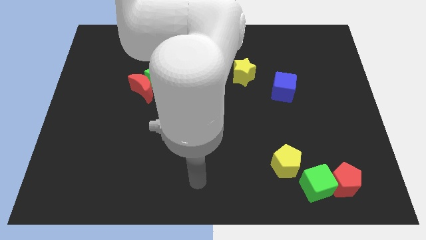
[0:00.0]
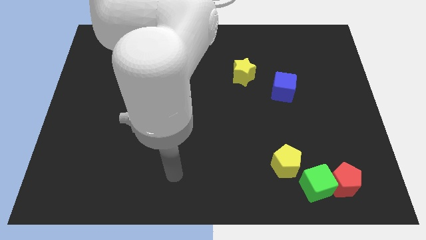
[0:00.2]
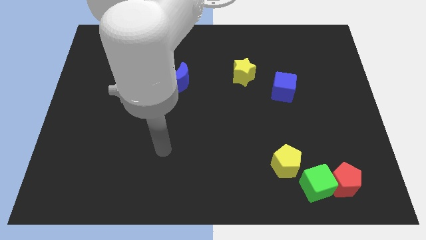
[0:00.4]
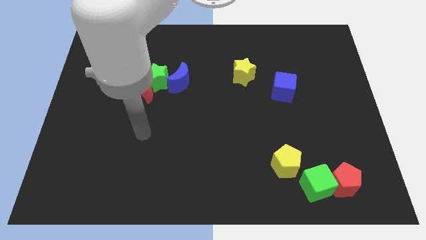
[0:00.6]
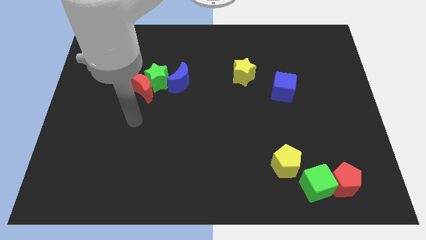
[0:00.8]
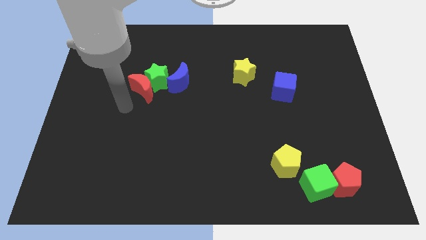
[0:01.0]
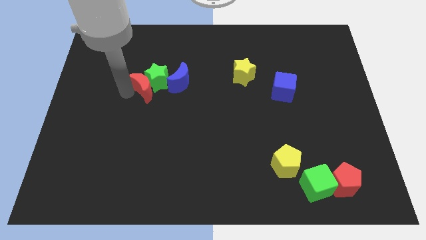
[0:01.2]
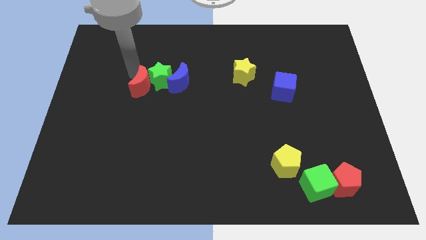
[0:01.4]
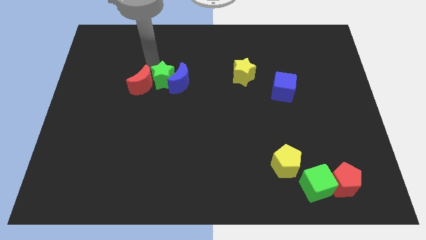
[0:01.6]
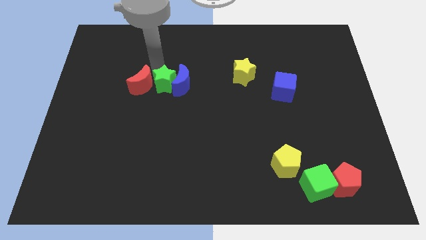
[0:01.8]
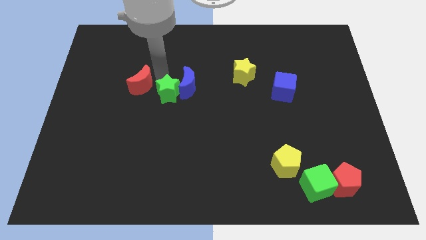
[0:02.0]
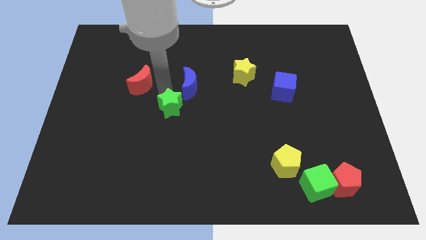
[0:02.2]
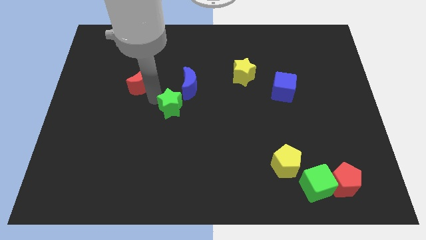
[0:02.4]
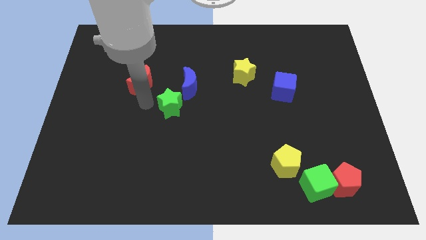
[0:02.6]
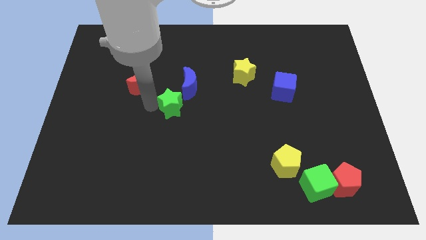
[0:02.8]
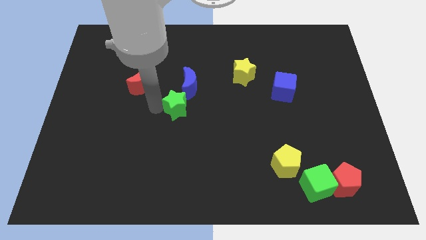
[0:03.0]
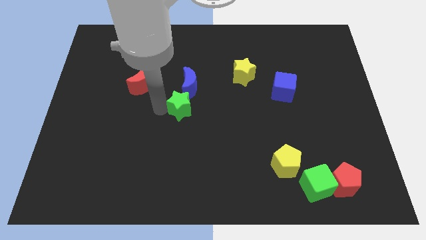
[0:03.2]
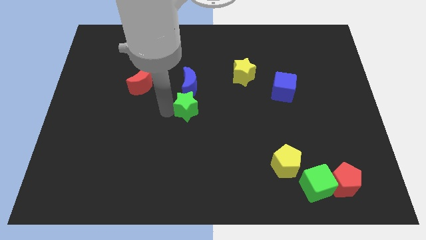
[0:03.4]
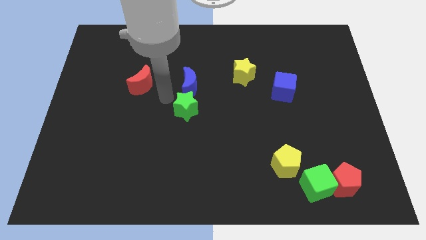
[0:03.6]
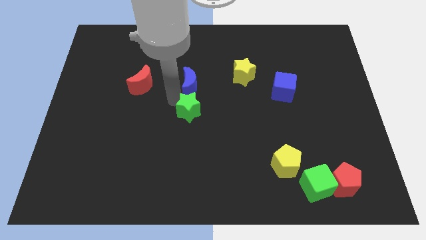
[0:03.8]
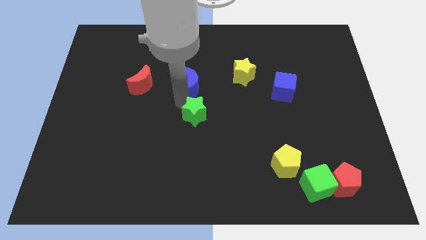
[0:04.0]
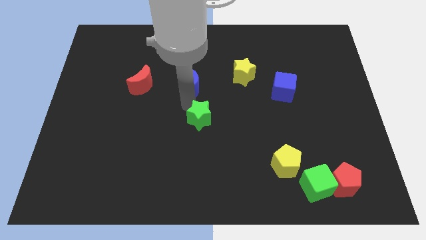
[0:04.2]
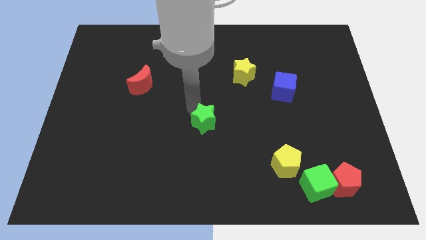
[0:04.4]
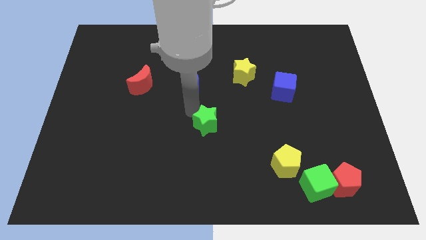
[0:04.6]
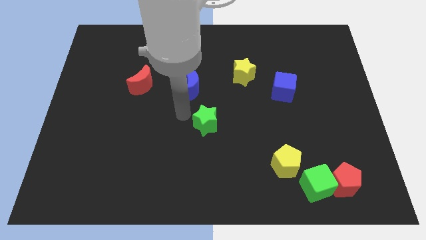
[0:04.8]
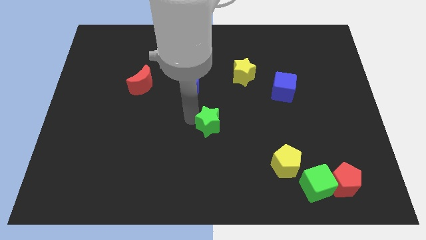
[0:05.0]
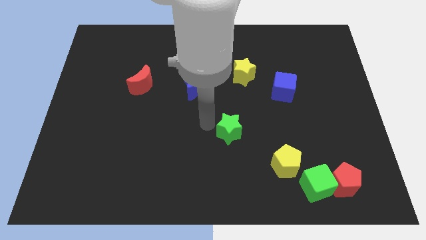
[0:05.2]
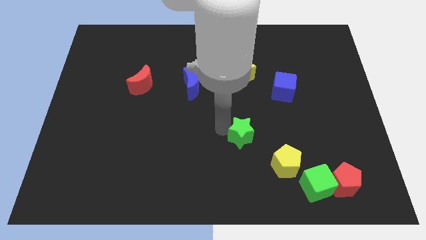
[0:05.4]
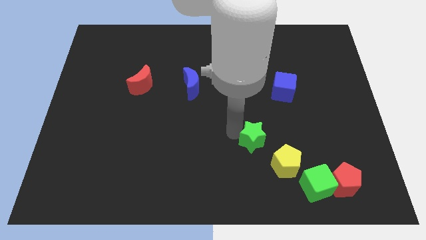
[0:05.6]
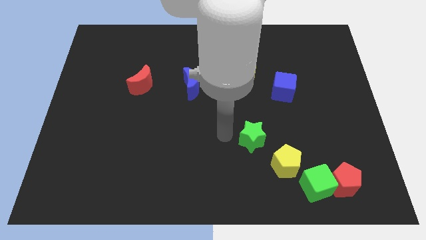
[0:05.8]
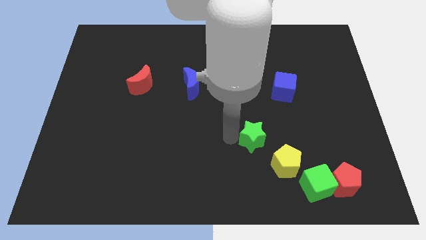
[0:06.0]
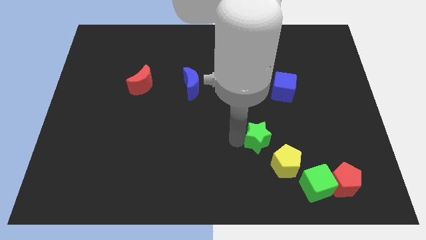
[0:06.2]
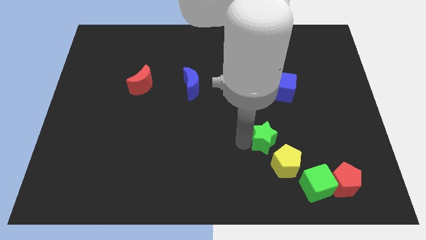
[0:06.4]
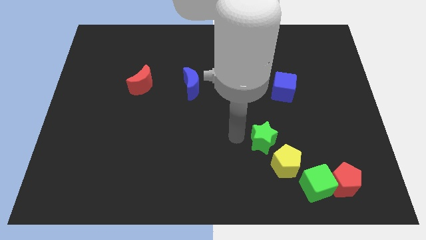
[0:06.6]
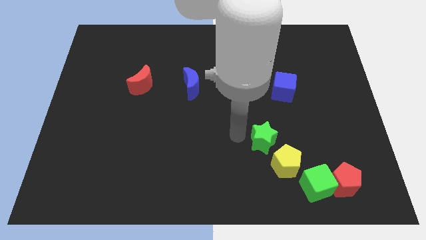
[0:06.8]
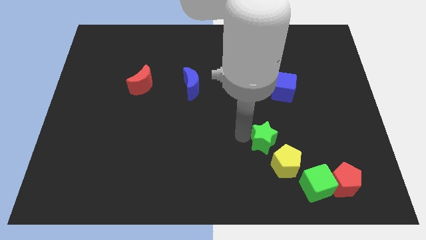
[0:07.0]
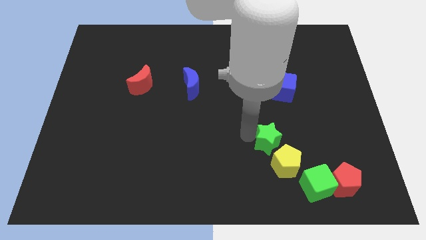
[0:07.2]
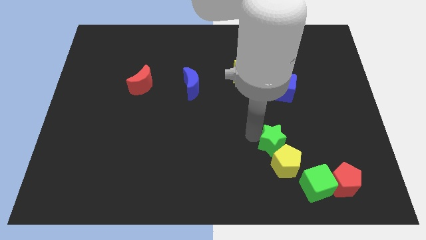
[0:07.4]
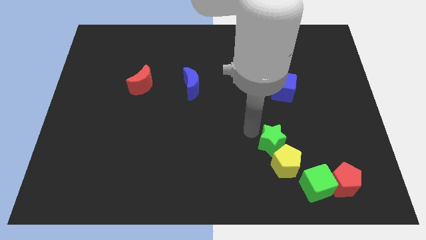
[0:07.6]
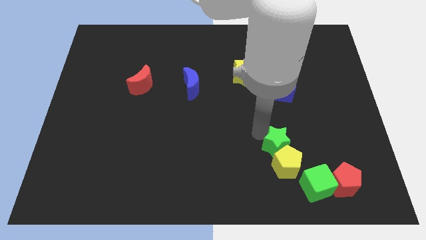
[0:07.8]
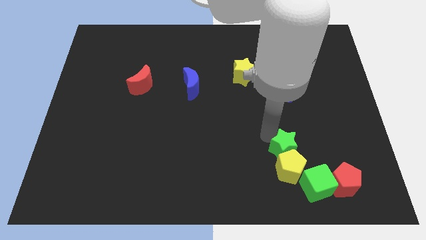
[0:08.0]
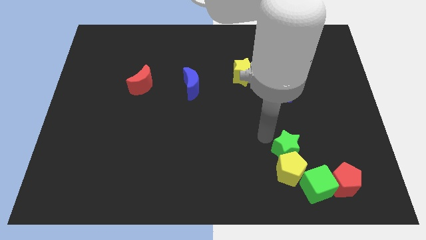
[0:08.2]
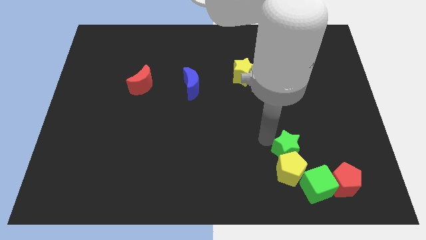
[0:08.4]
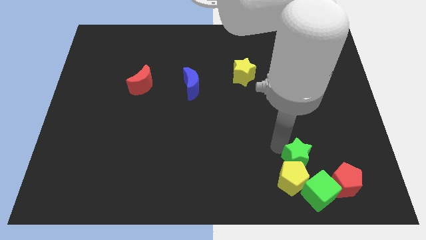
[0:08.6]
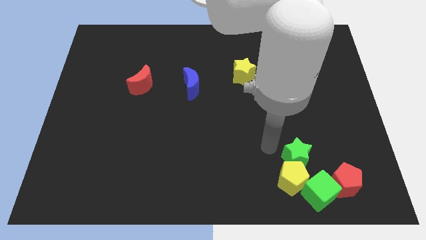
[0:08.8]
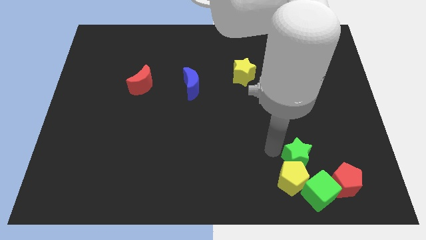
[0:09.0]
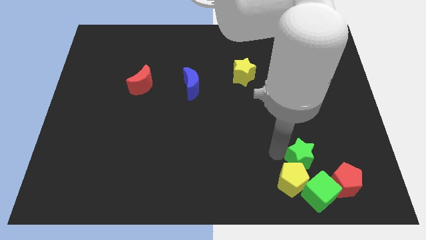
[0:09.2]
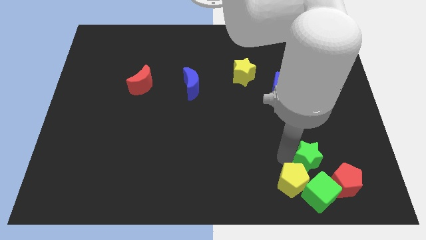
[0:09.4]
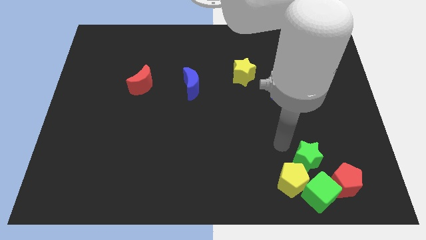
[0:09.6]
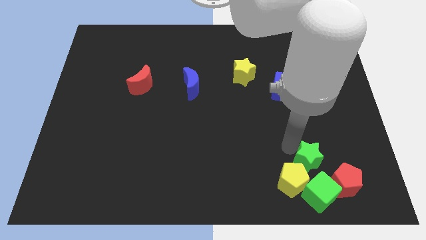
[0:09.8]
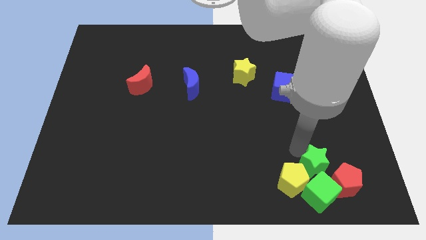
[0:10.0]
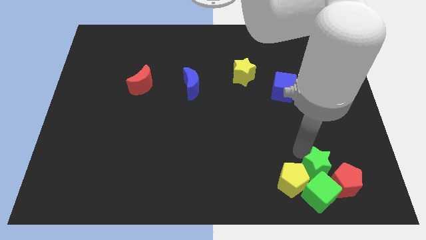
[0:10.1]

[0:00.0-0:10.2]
move the green star close to the red pentagon

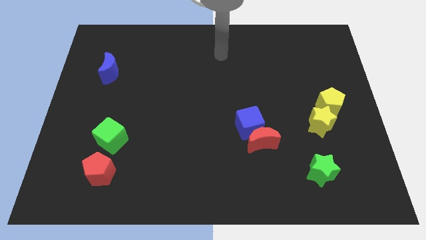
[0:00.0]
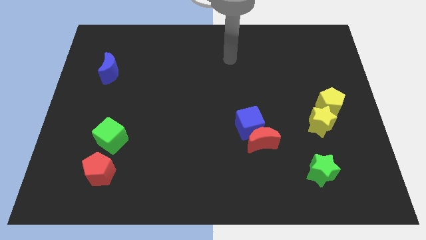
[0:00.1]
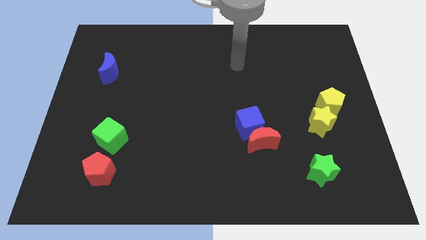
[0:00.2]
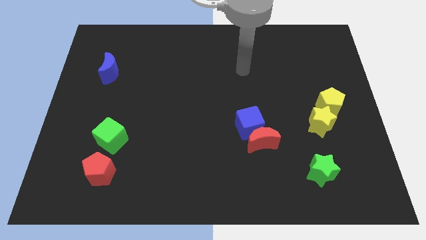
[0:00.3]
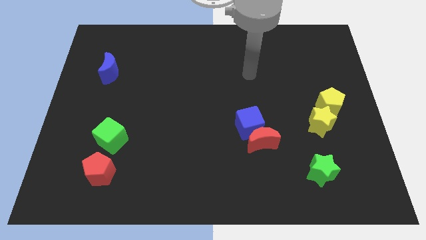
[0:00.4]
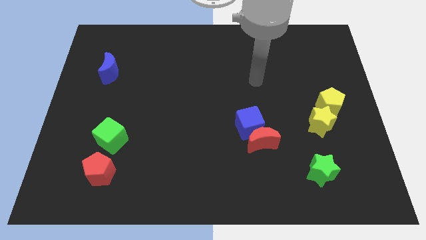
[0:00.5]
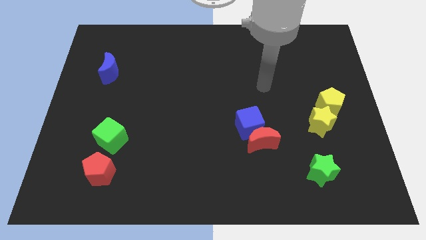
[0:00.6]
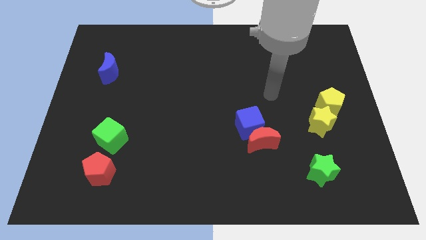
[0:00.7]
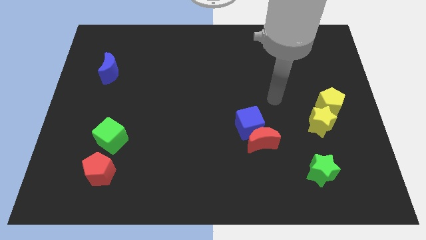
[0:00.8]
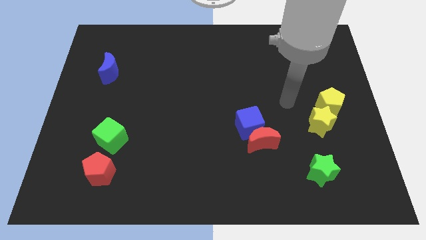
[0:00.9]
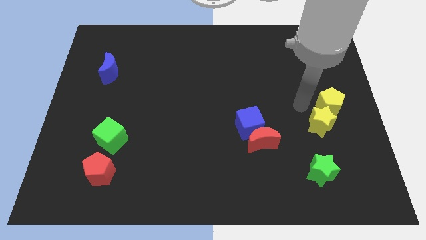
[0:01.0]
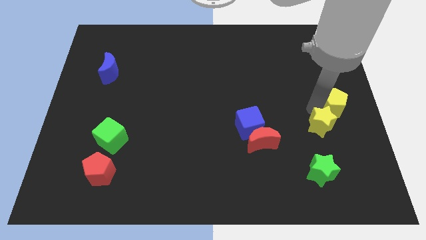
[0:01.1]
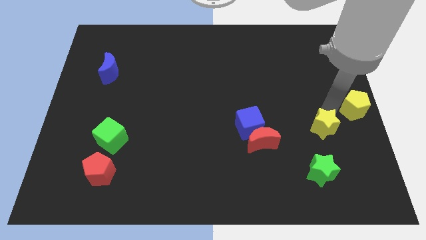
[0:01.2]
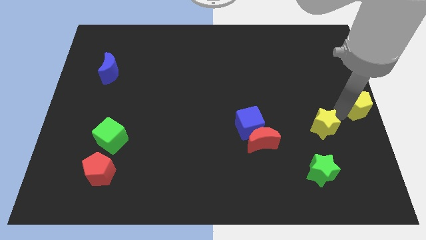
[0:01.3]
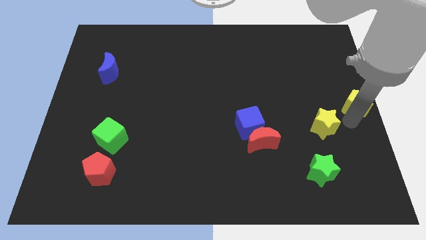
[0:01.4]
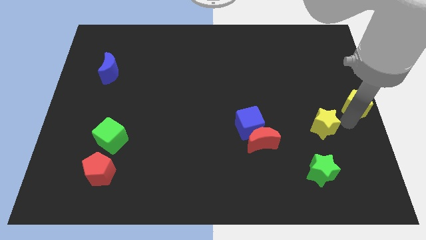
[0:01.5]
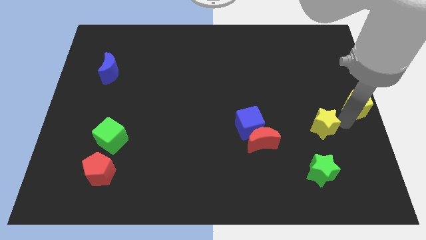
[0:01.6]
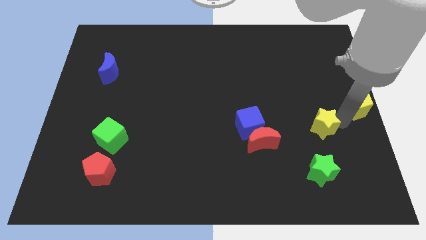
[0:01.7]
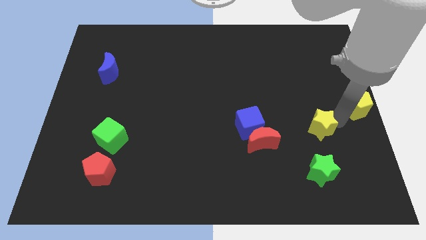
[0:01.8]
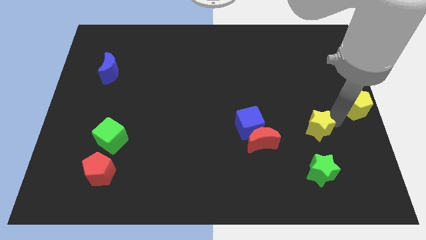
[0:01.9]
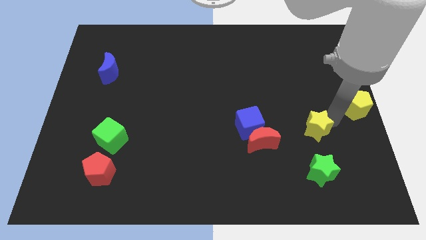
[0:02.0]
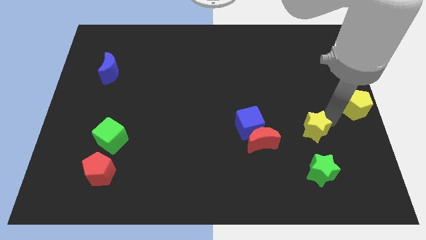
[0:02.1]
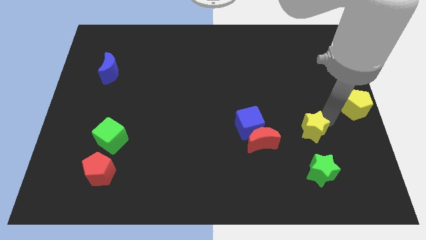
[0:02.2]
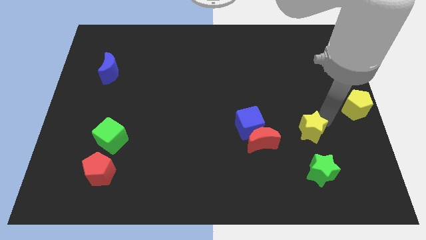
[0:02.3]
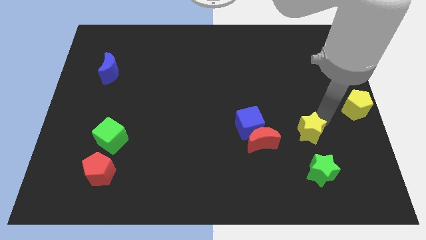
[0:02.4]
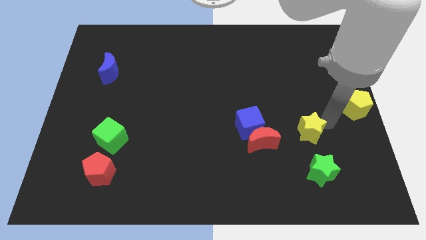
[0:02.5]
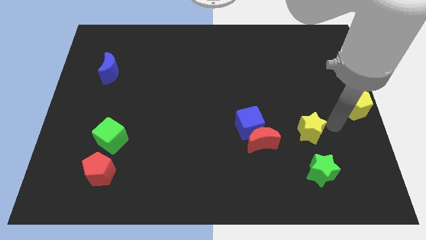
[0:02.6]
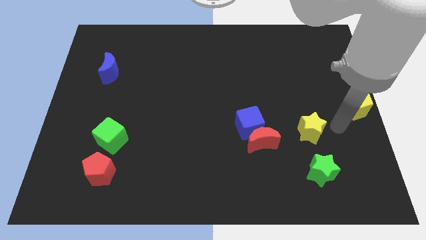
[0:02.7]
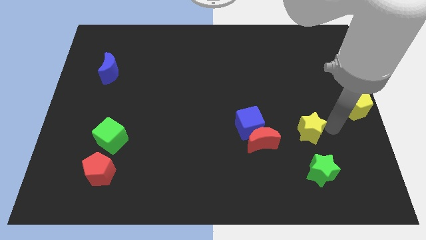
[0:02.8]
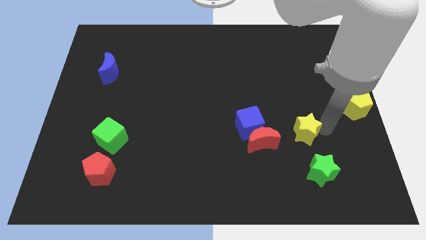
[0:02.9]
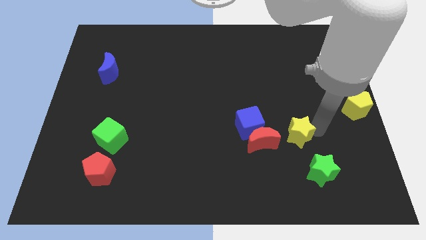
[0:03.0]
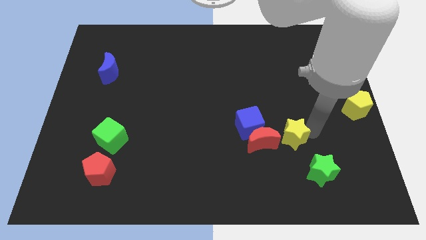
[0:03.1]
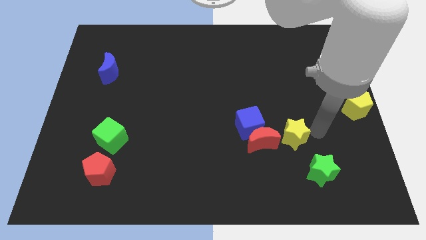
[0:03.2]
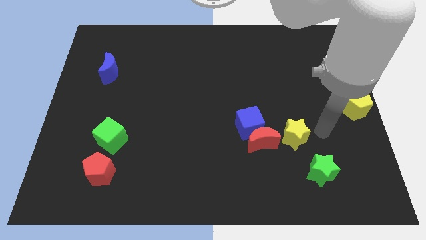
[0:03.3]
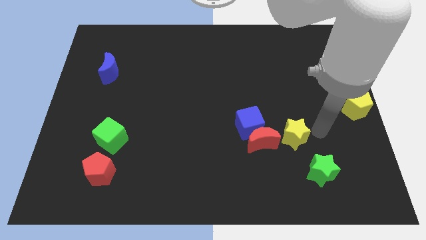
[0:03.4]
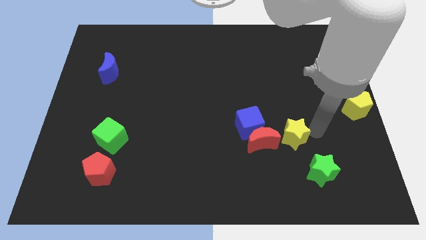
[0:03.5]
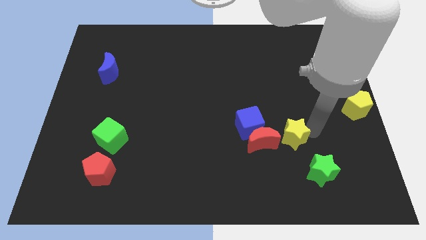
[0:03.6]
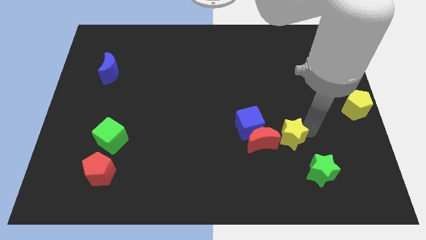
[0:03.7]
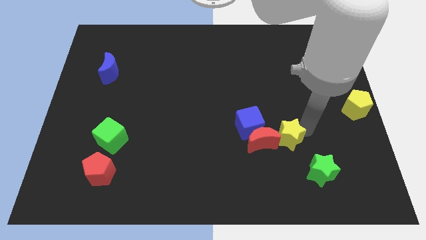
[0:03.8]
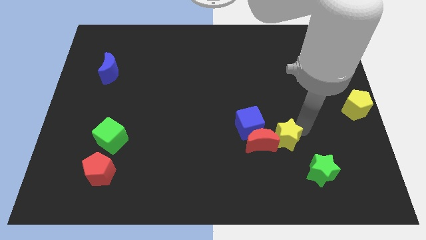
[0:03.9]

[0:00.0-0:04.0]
push the yellow star towards the red moon
